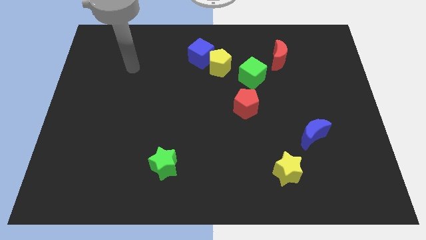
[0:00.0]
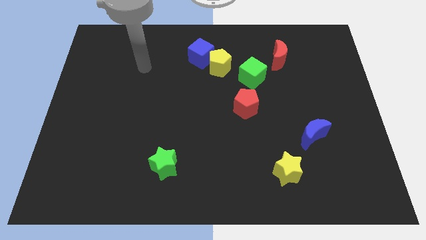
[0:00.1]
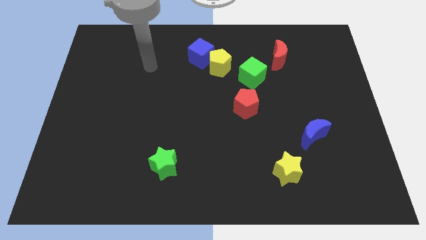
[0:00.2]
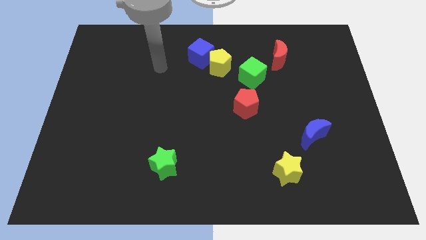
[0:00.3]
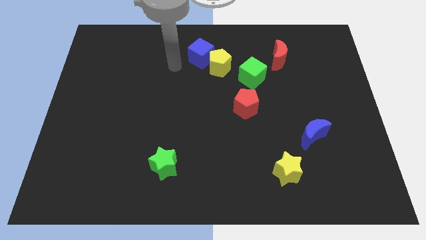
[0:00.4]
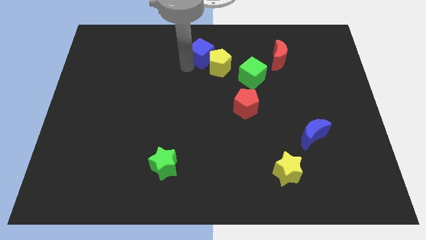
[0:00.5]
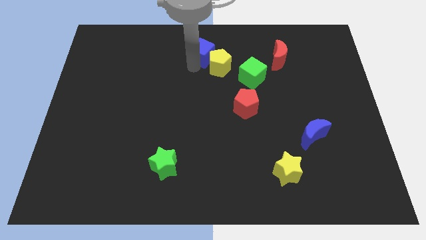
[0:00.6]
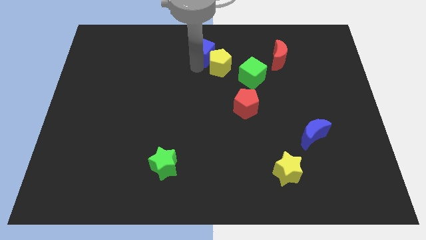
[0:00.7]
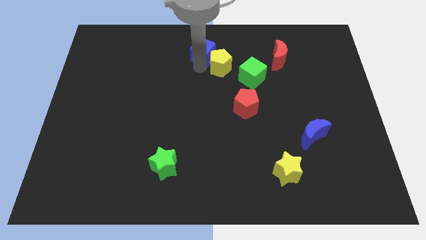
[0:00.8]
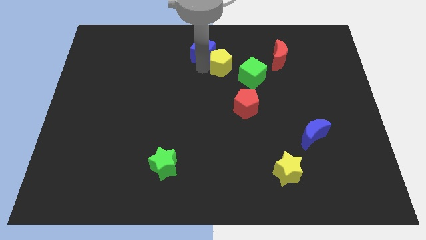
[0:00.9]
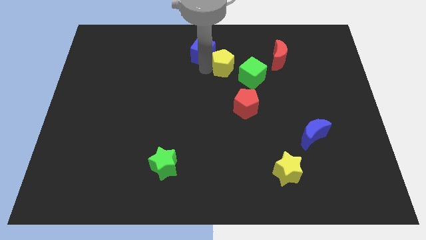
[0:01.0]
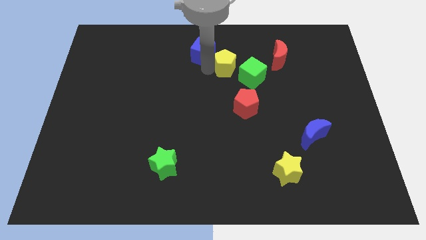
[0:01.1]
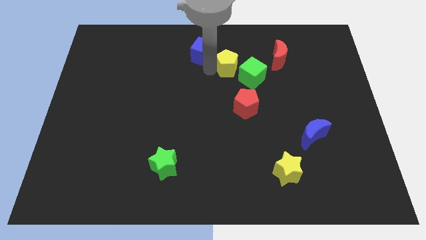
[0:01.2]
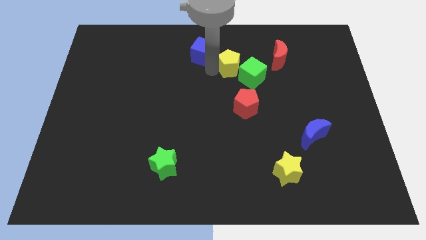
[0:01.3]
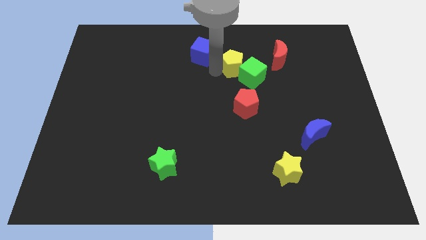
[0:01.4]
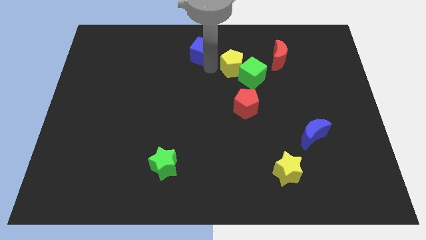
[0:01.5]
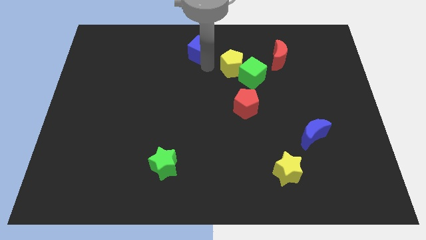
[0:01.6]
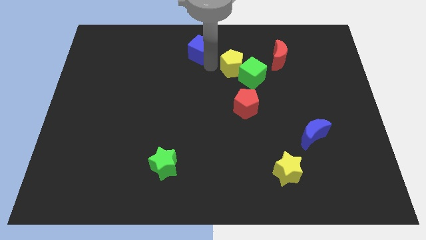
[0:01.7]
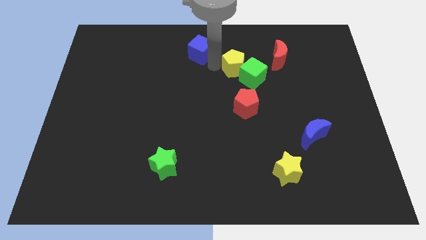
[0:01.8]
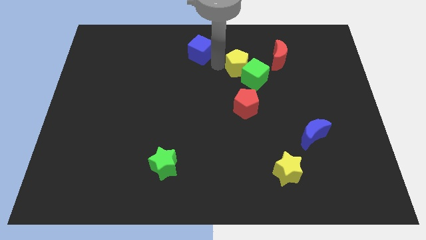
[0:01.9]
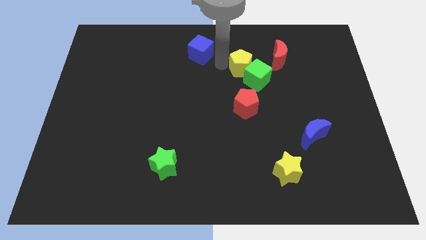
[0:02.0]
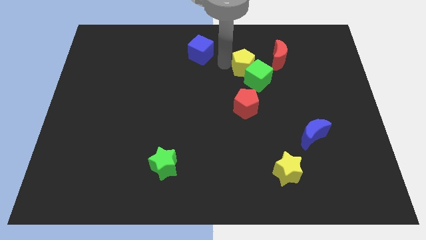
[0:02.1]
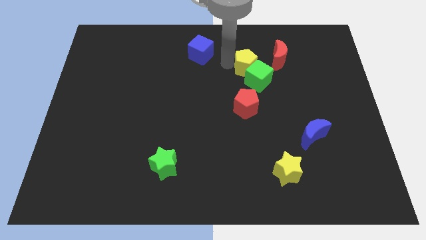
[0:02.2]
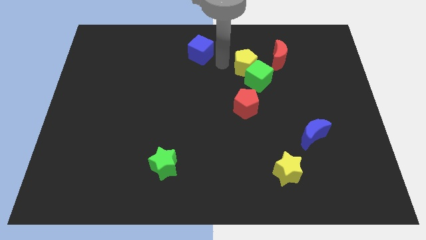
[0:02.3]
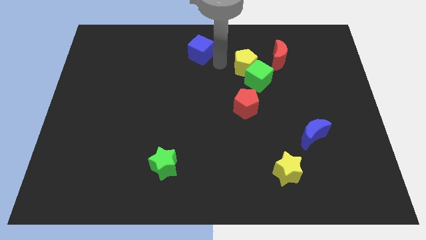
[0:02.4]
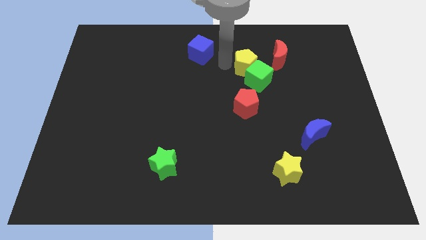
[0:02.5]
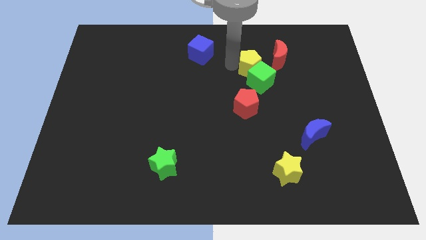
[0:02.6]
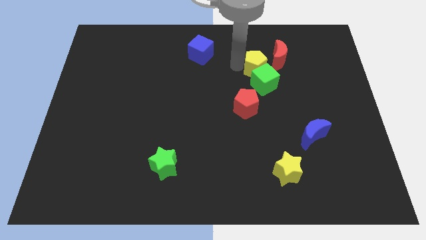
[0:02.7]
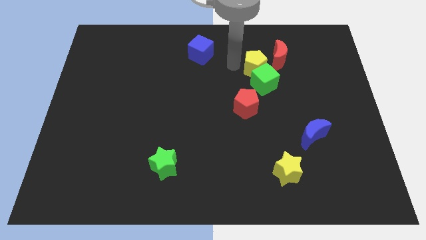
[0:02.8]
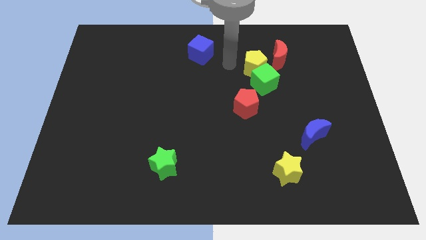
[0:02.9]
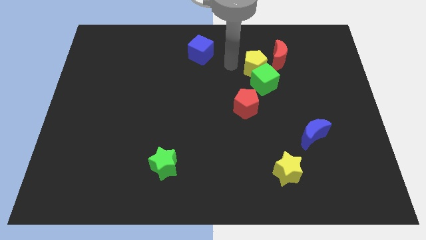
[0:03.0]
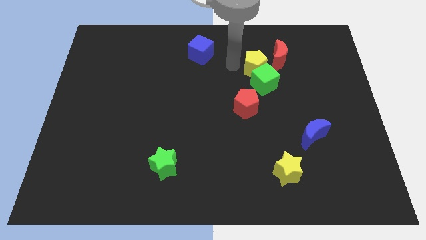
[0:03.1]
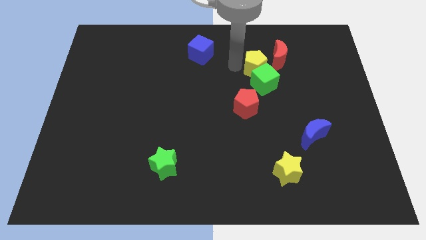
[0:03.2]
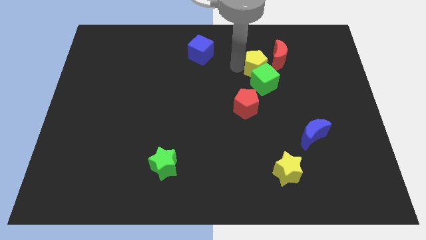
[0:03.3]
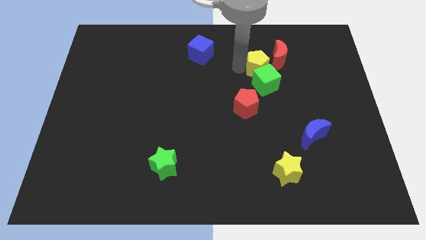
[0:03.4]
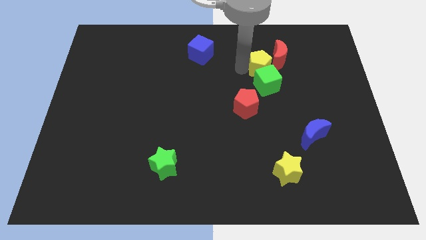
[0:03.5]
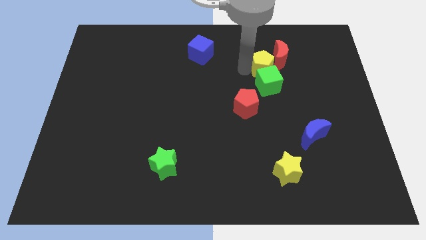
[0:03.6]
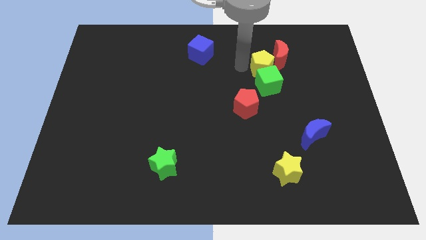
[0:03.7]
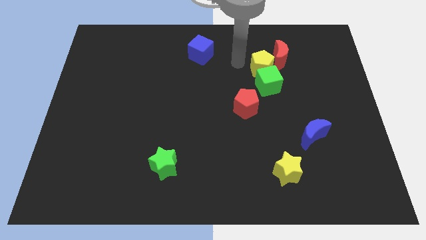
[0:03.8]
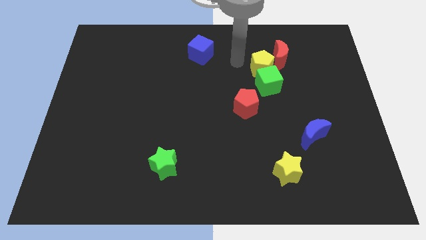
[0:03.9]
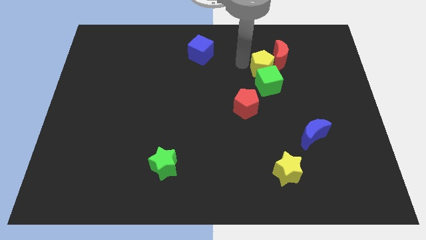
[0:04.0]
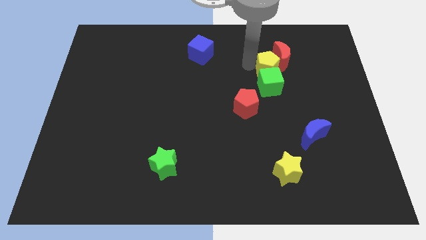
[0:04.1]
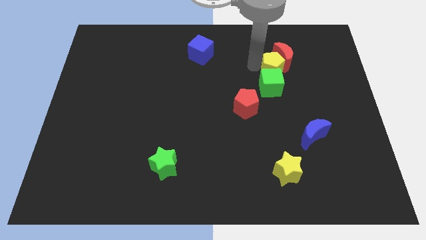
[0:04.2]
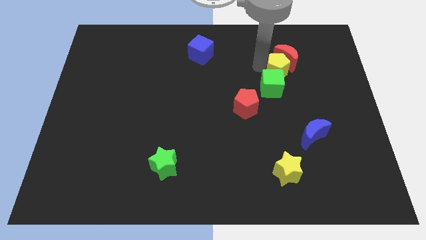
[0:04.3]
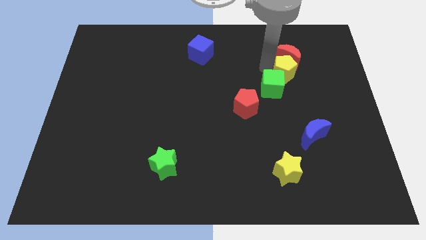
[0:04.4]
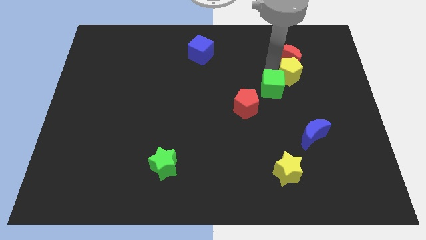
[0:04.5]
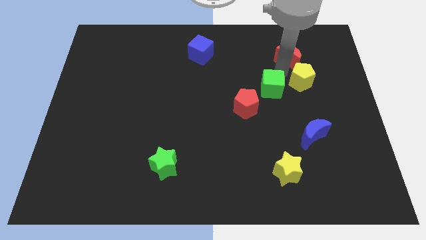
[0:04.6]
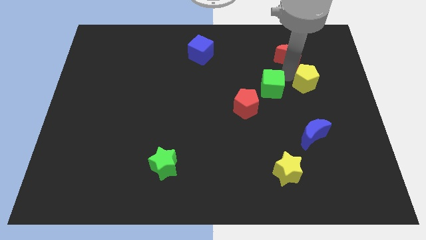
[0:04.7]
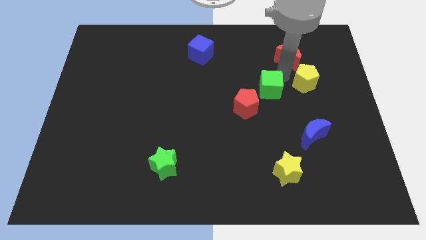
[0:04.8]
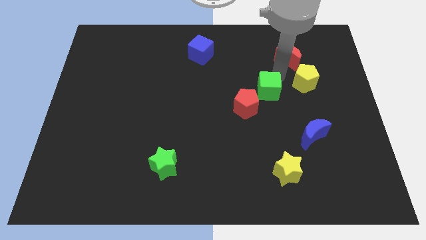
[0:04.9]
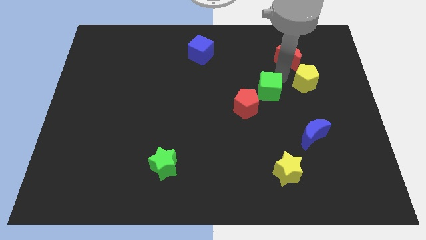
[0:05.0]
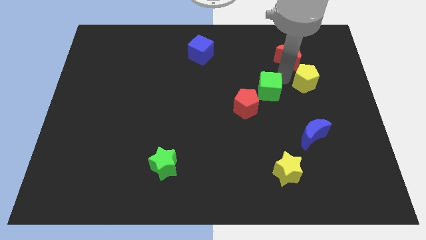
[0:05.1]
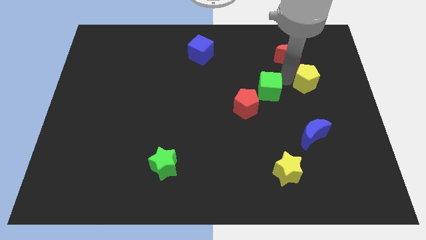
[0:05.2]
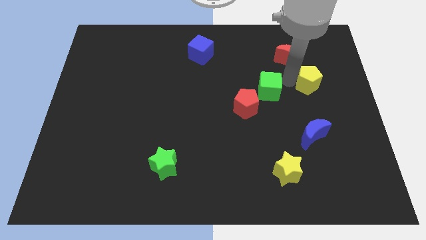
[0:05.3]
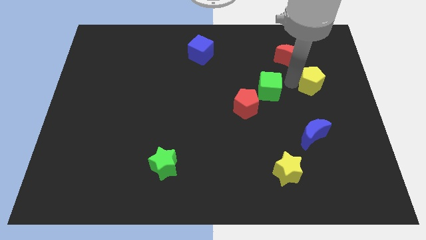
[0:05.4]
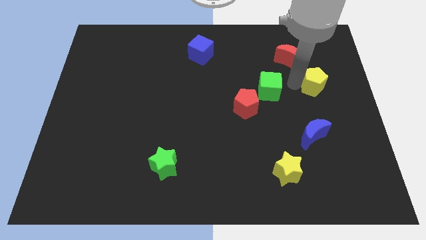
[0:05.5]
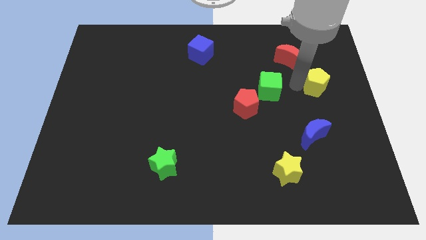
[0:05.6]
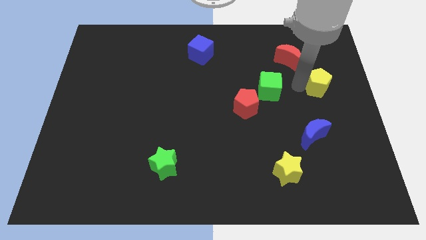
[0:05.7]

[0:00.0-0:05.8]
slide the yellow pentagon to the right side of the board

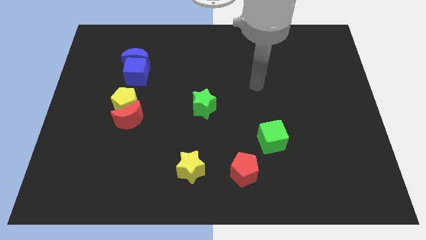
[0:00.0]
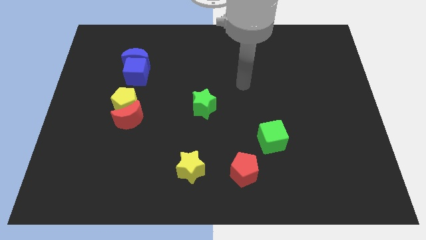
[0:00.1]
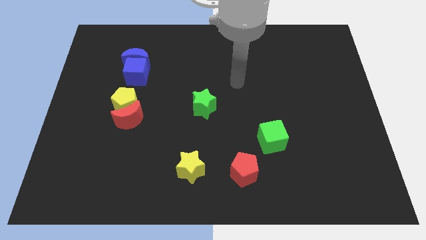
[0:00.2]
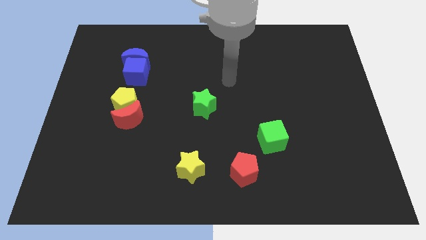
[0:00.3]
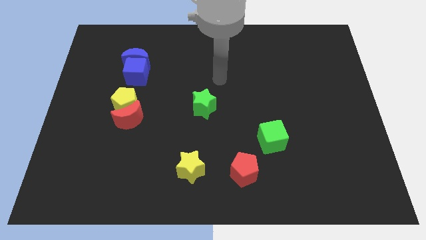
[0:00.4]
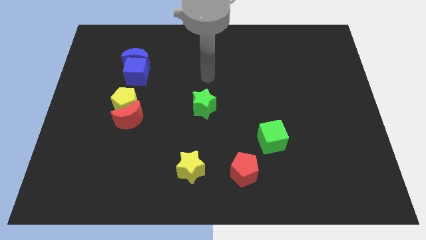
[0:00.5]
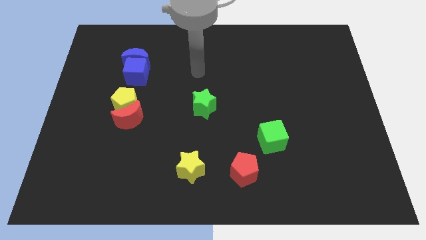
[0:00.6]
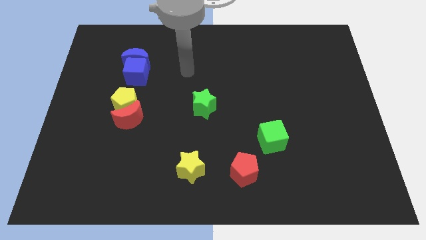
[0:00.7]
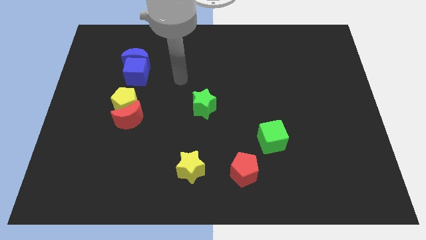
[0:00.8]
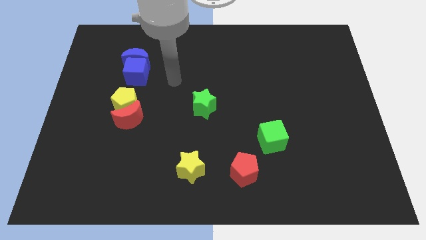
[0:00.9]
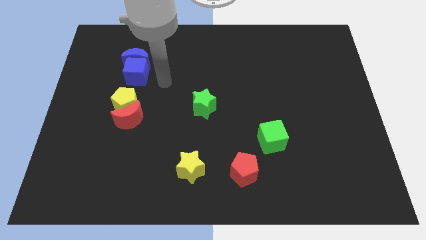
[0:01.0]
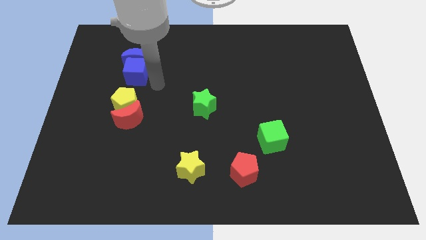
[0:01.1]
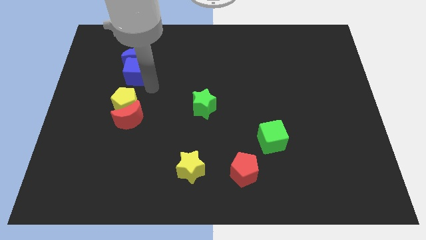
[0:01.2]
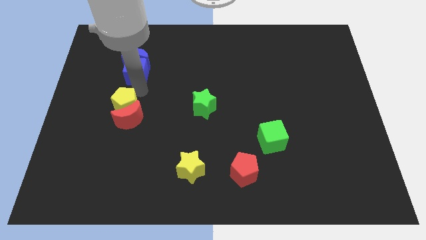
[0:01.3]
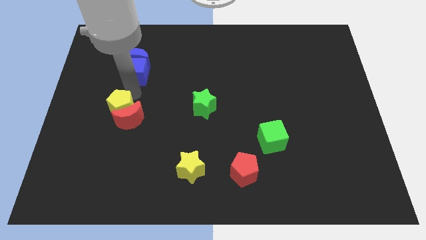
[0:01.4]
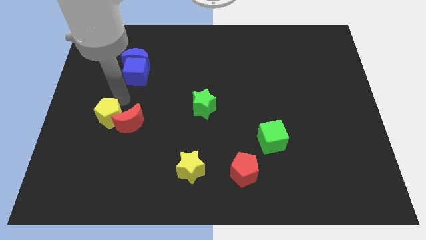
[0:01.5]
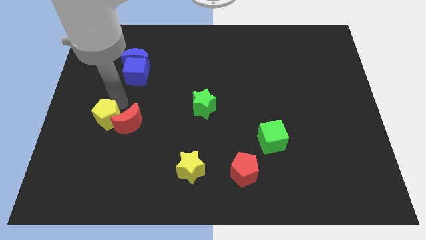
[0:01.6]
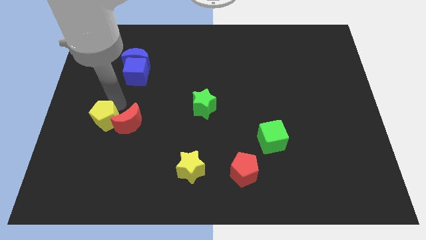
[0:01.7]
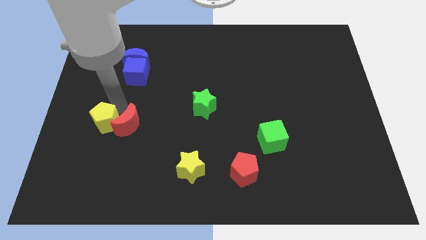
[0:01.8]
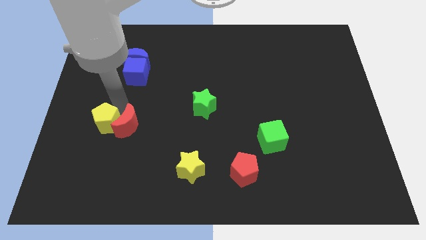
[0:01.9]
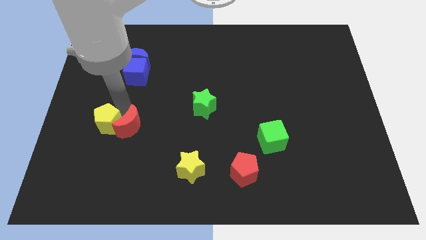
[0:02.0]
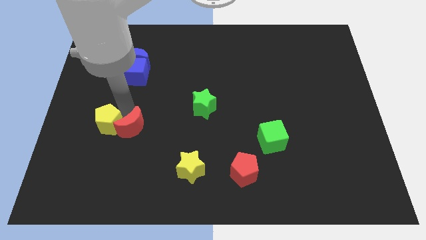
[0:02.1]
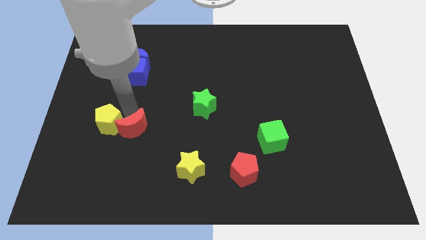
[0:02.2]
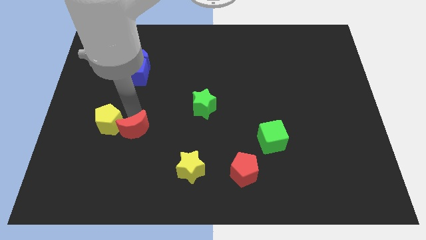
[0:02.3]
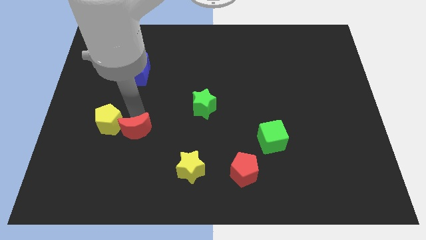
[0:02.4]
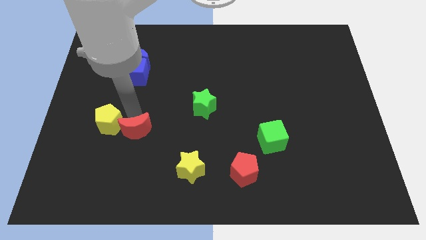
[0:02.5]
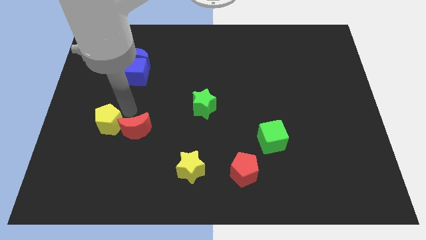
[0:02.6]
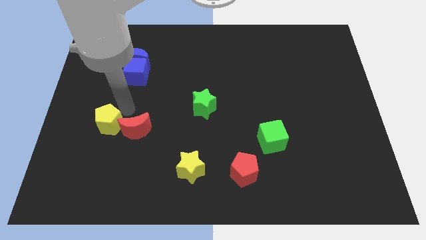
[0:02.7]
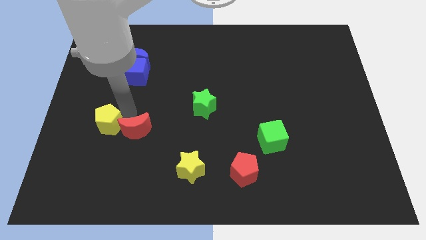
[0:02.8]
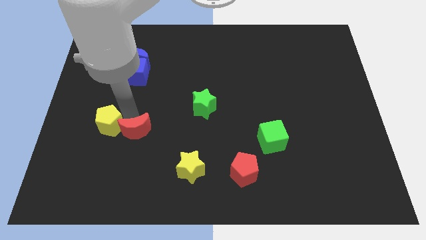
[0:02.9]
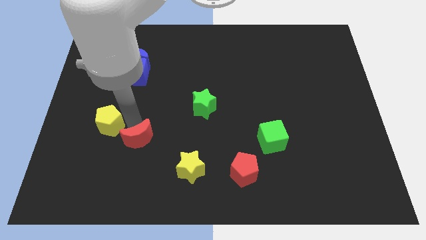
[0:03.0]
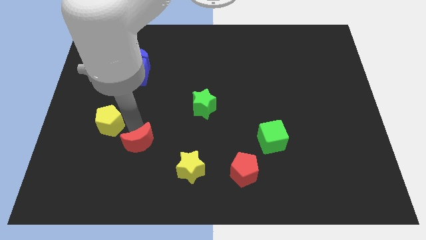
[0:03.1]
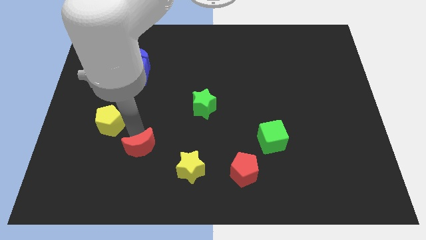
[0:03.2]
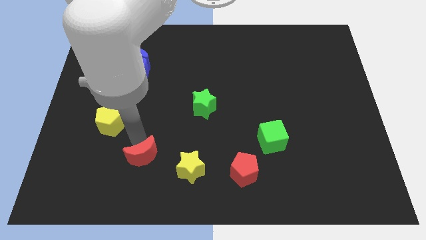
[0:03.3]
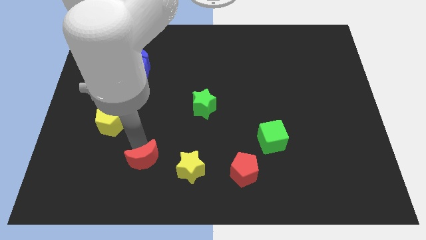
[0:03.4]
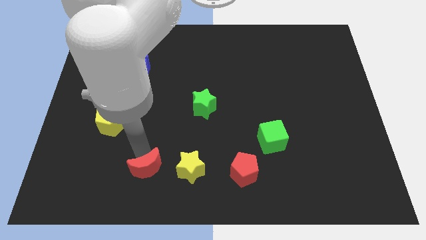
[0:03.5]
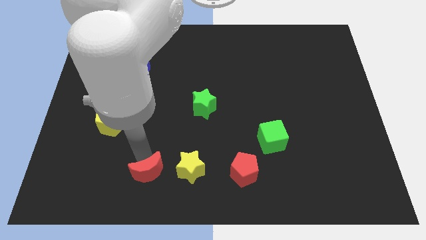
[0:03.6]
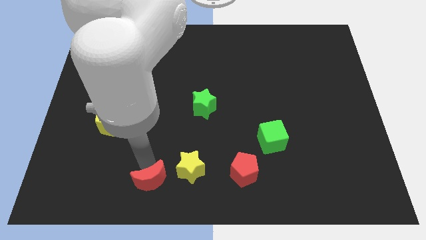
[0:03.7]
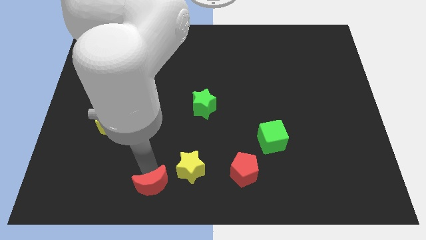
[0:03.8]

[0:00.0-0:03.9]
slide the red moon to the bottom
